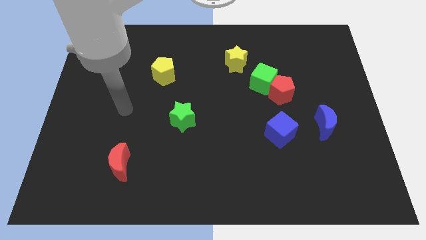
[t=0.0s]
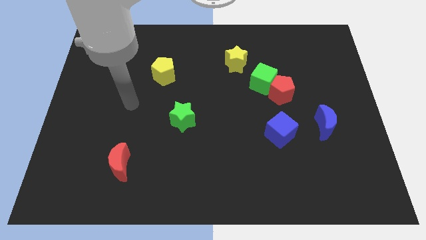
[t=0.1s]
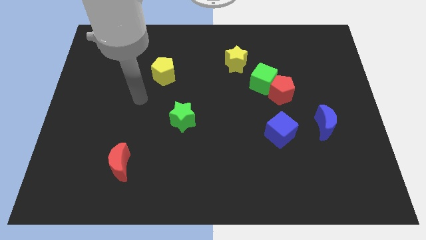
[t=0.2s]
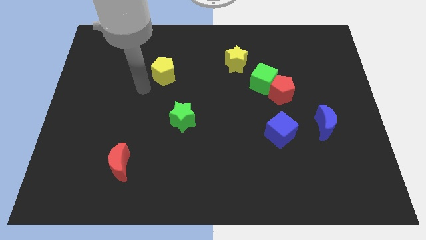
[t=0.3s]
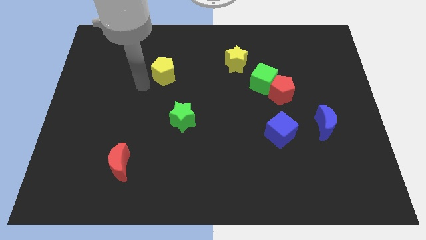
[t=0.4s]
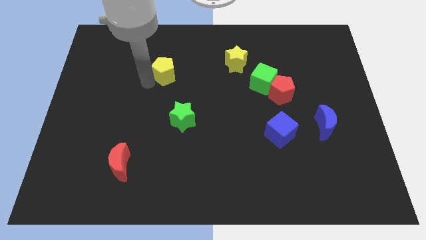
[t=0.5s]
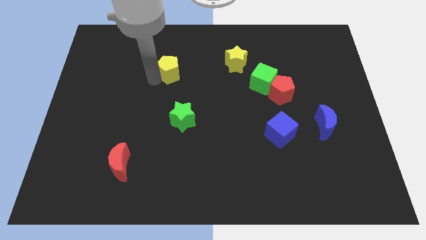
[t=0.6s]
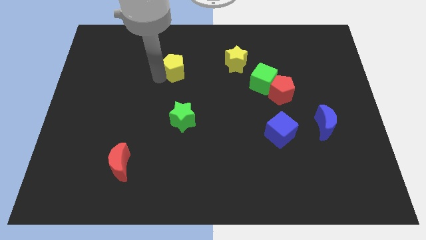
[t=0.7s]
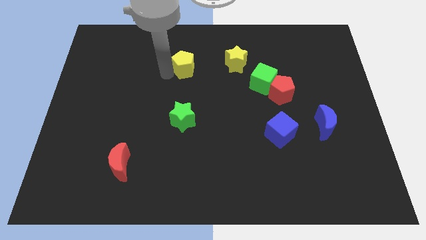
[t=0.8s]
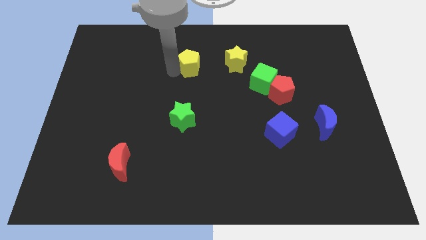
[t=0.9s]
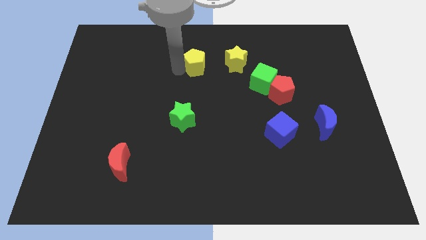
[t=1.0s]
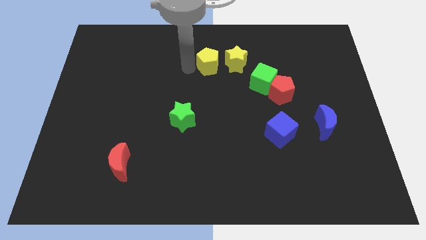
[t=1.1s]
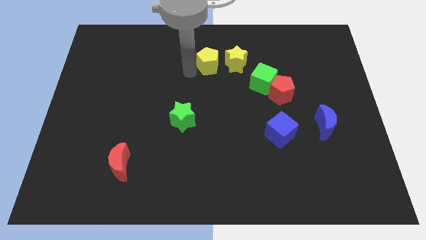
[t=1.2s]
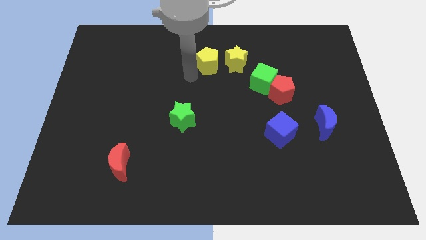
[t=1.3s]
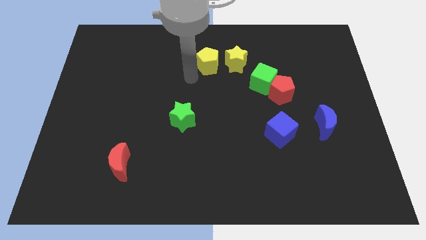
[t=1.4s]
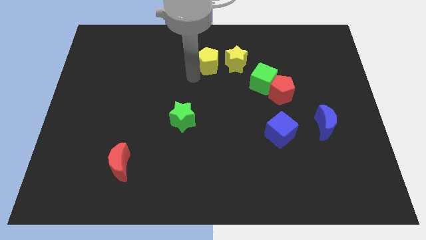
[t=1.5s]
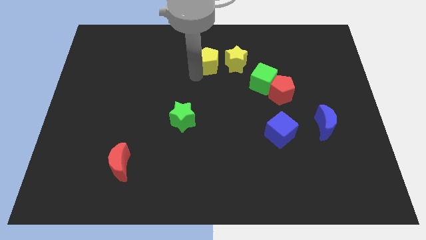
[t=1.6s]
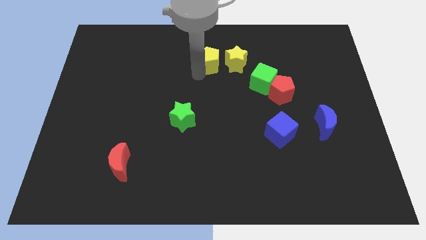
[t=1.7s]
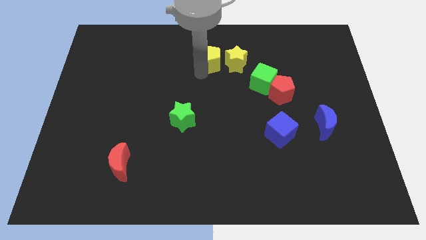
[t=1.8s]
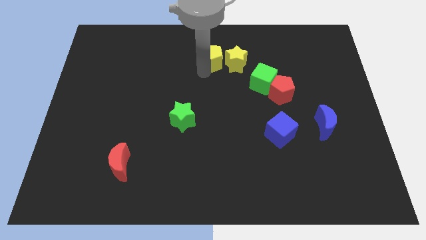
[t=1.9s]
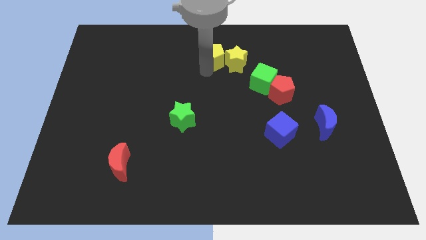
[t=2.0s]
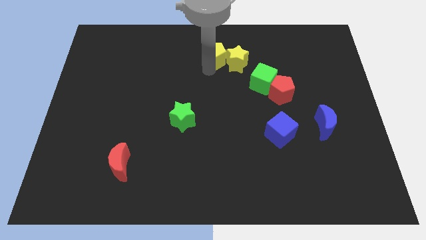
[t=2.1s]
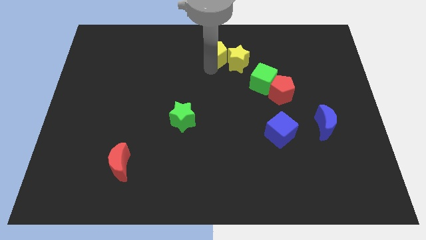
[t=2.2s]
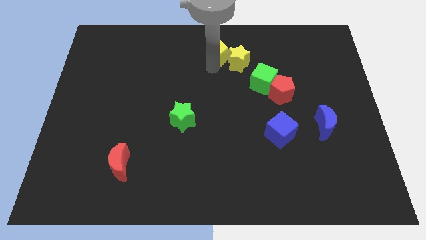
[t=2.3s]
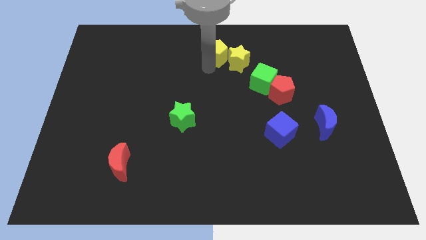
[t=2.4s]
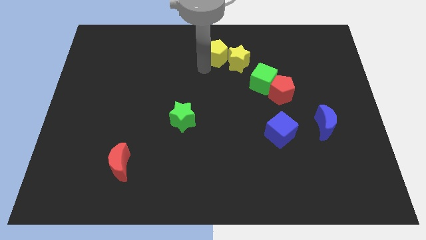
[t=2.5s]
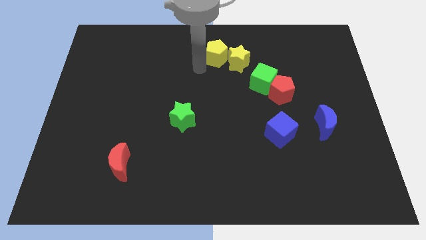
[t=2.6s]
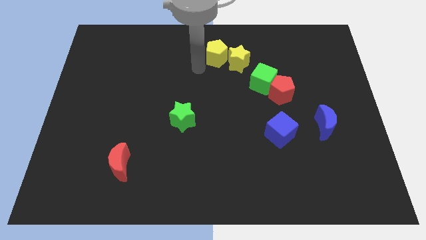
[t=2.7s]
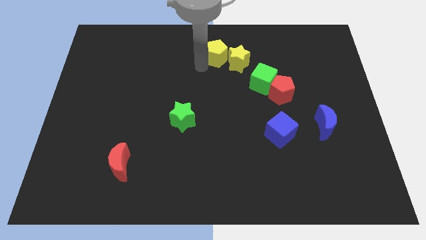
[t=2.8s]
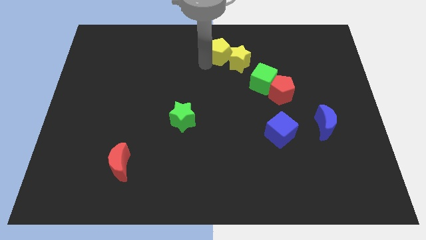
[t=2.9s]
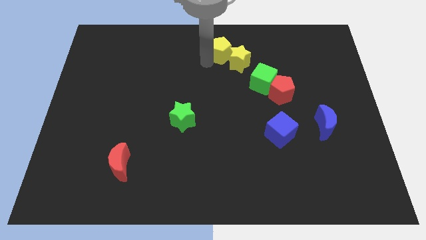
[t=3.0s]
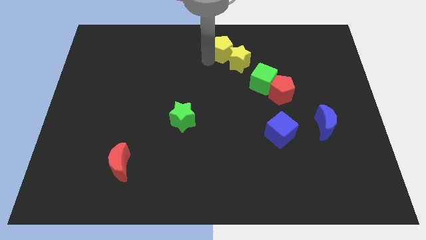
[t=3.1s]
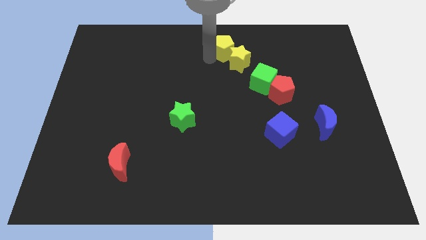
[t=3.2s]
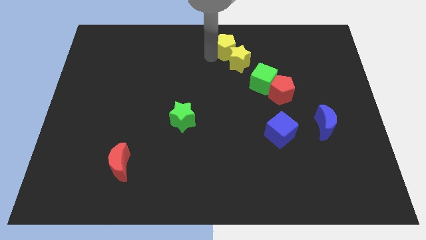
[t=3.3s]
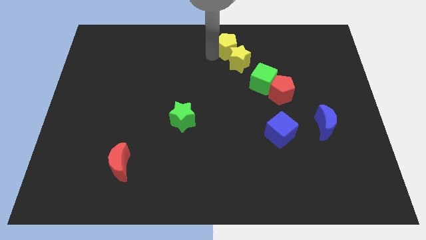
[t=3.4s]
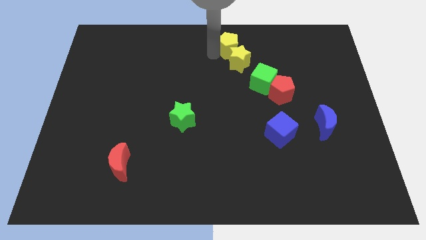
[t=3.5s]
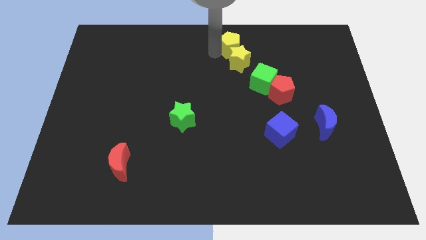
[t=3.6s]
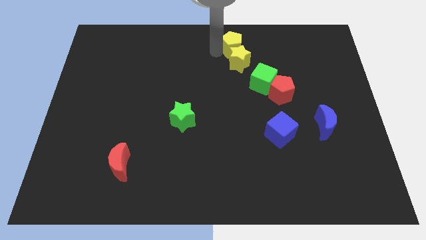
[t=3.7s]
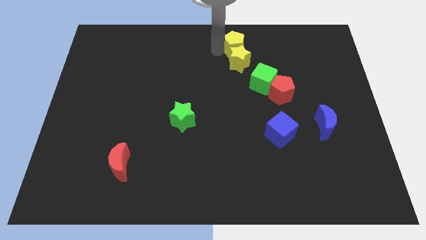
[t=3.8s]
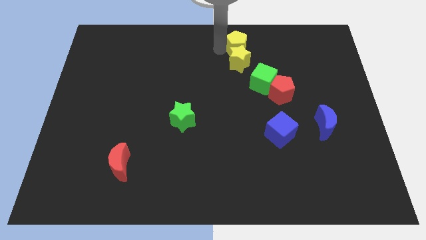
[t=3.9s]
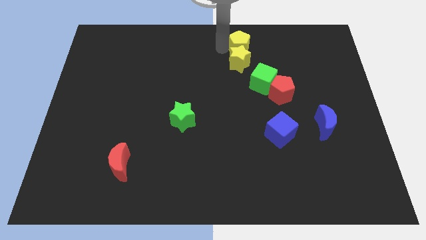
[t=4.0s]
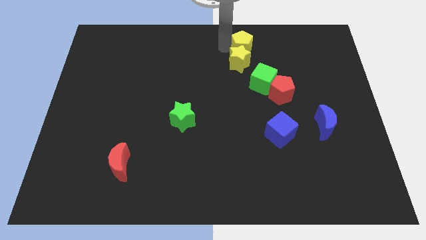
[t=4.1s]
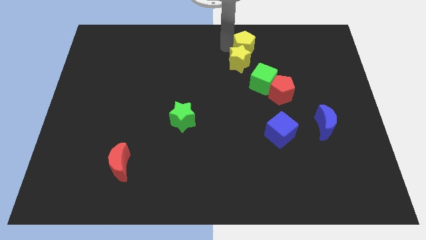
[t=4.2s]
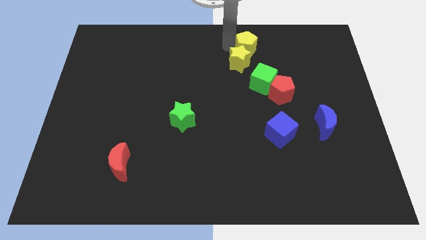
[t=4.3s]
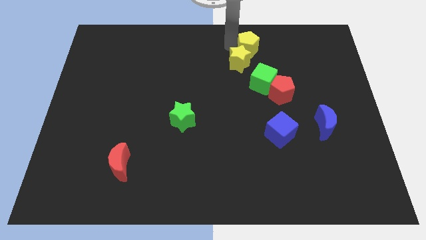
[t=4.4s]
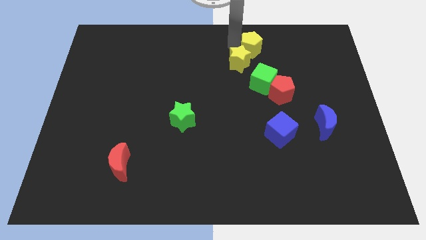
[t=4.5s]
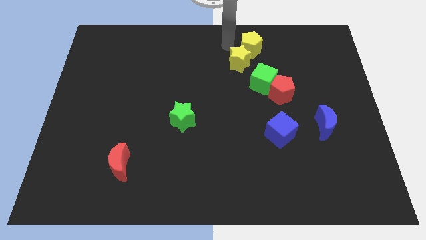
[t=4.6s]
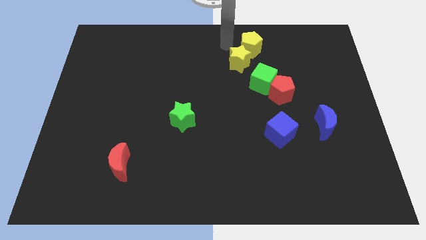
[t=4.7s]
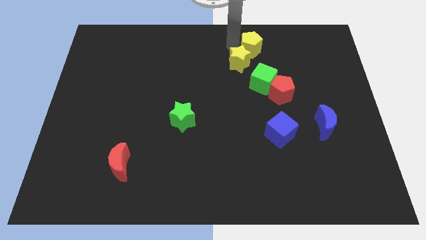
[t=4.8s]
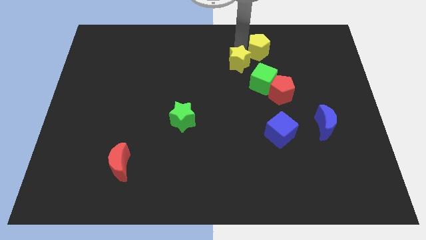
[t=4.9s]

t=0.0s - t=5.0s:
push the yellow pentagon to the right

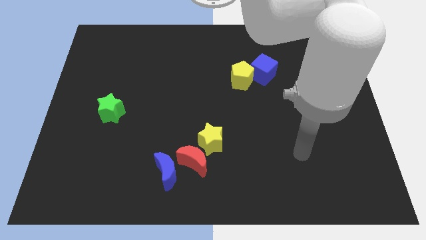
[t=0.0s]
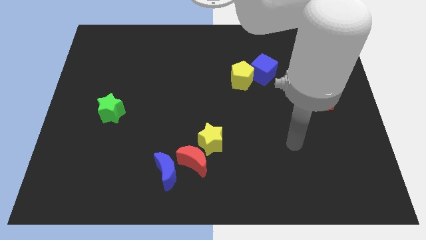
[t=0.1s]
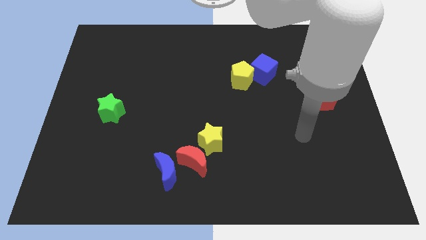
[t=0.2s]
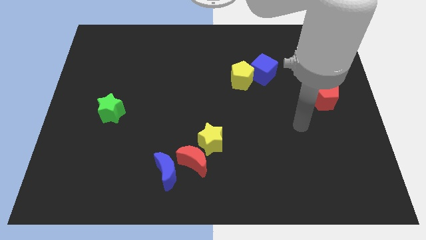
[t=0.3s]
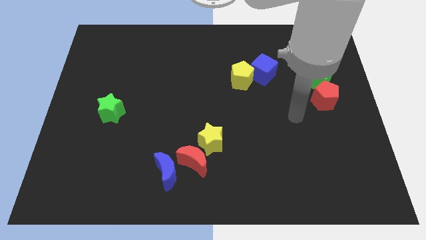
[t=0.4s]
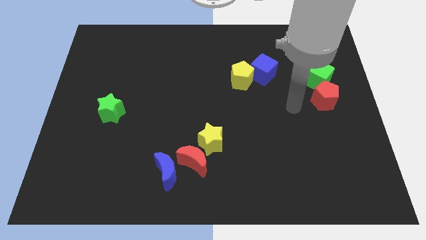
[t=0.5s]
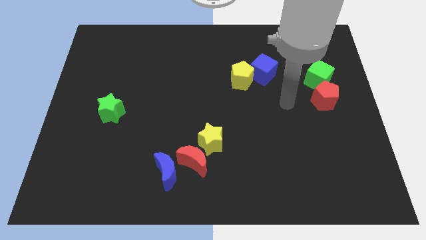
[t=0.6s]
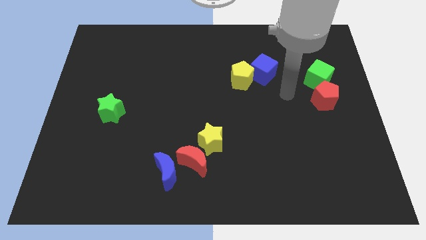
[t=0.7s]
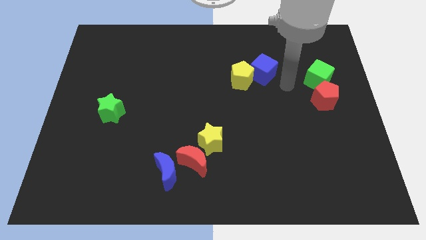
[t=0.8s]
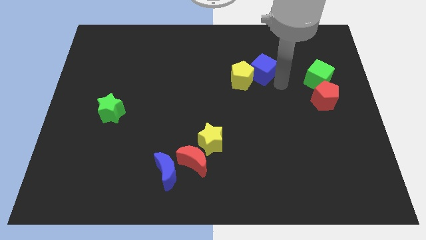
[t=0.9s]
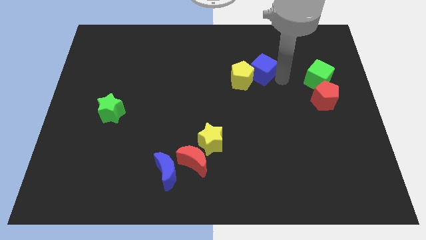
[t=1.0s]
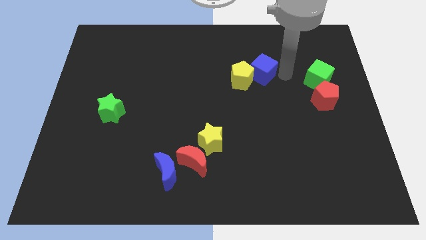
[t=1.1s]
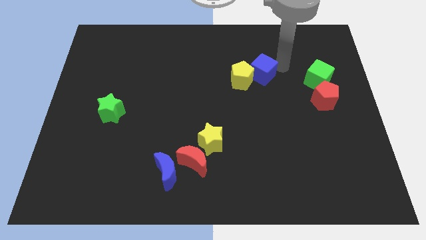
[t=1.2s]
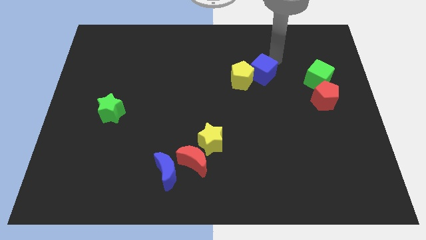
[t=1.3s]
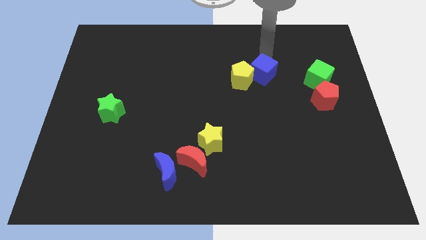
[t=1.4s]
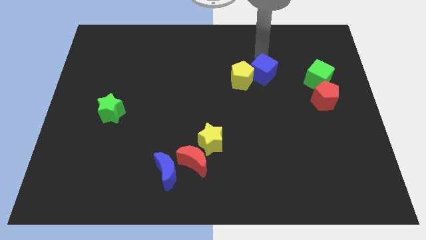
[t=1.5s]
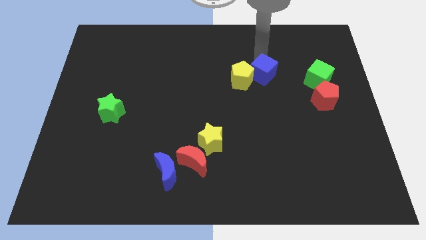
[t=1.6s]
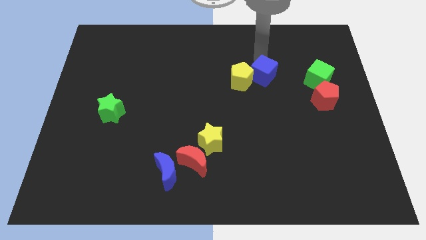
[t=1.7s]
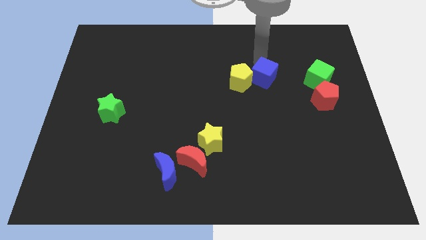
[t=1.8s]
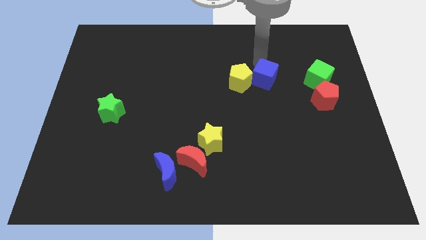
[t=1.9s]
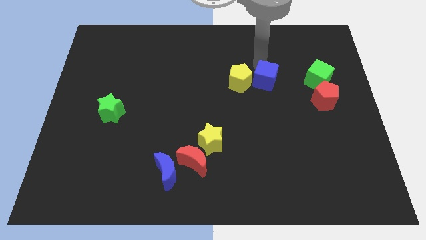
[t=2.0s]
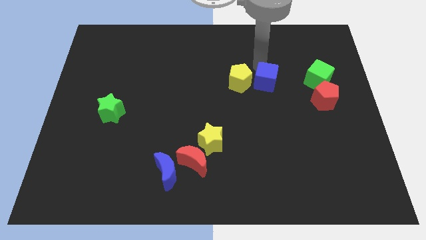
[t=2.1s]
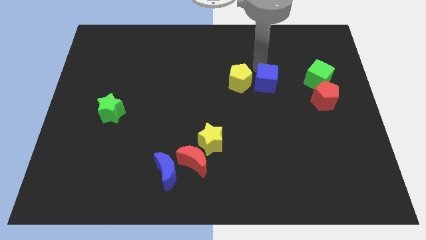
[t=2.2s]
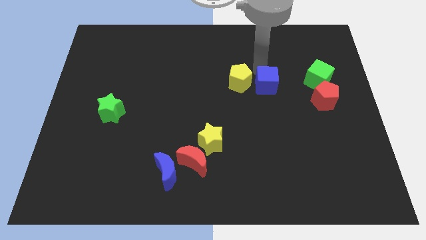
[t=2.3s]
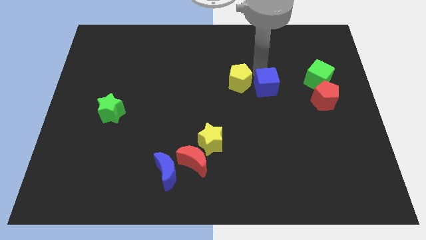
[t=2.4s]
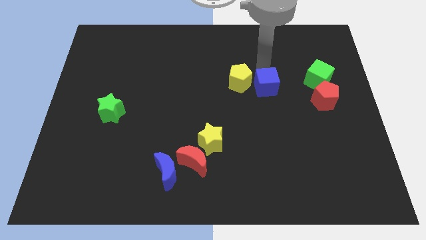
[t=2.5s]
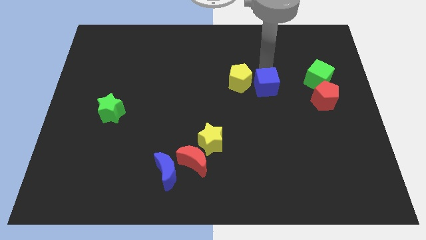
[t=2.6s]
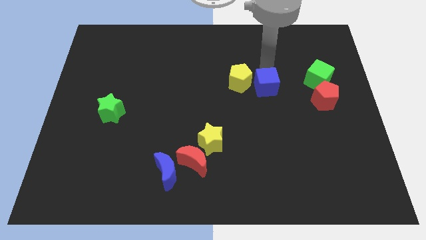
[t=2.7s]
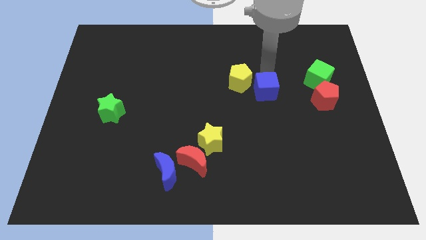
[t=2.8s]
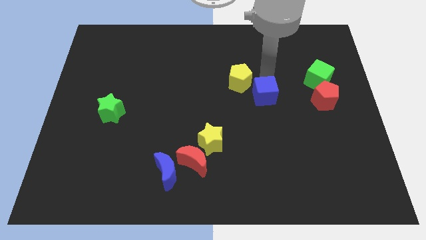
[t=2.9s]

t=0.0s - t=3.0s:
slightly push the blue cube down

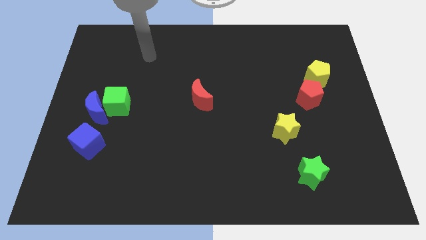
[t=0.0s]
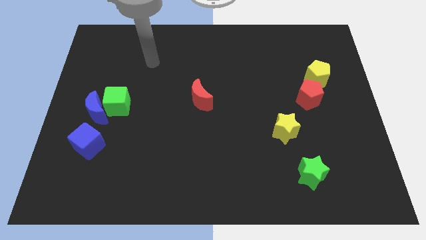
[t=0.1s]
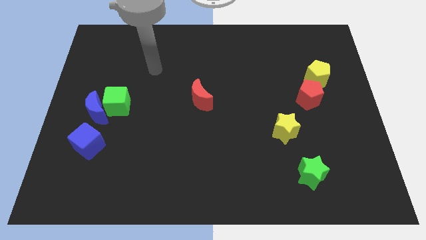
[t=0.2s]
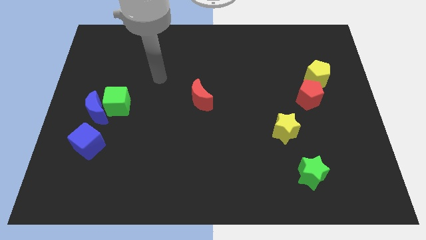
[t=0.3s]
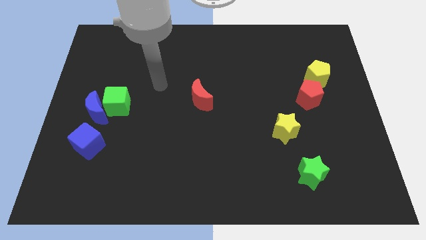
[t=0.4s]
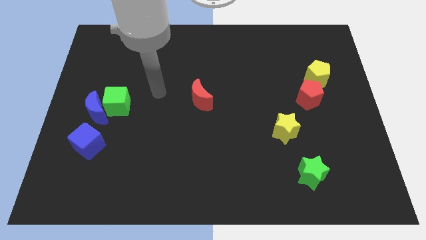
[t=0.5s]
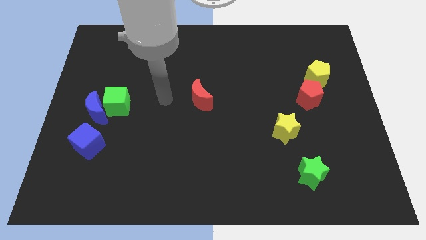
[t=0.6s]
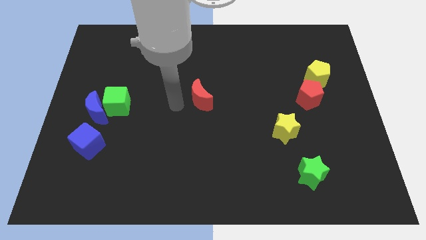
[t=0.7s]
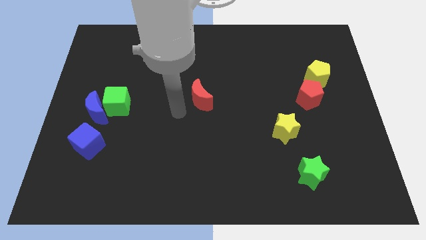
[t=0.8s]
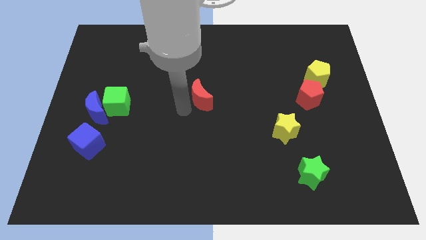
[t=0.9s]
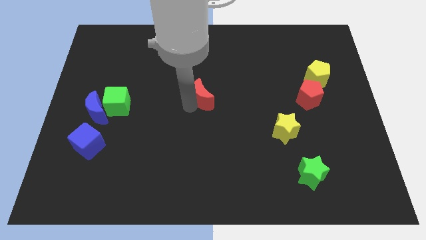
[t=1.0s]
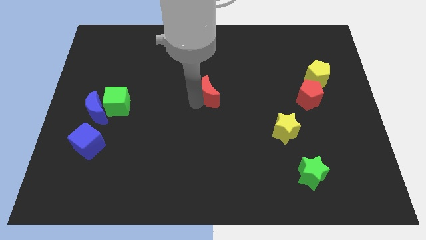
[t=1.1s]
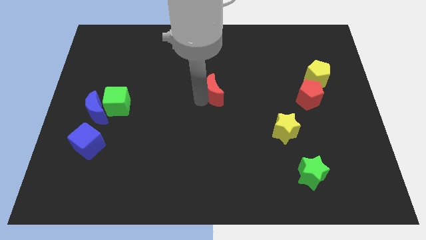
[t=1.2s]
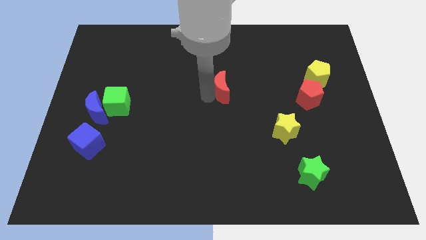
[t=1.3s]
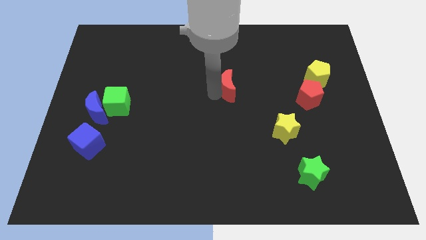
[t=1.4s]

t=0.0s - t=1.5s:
slightly move the red moon up and to the right
